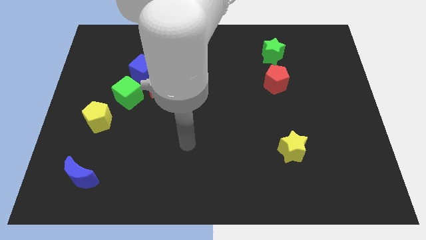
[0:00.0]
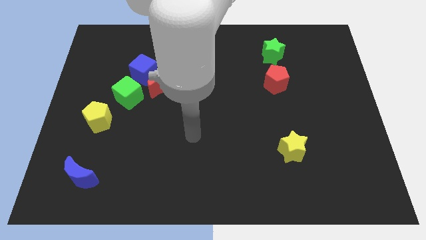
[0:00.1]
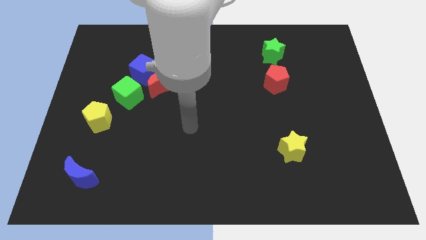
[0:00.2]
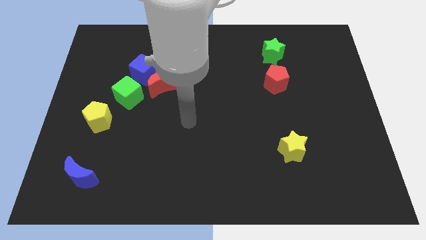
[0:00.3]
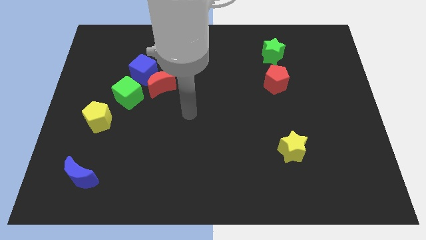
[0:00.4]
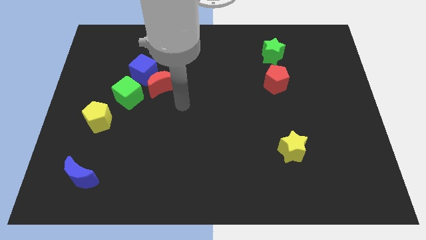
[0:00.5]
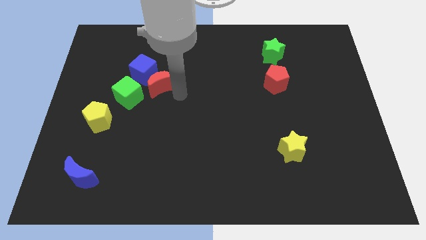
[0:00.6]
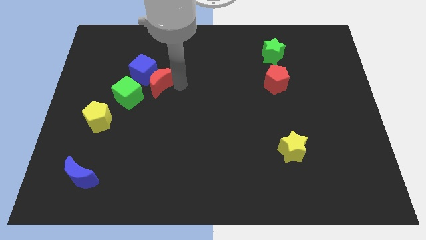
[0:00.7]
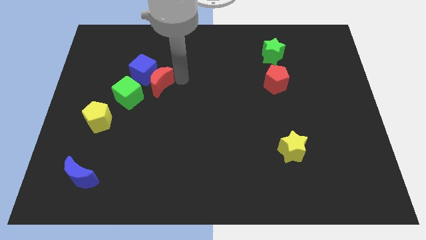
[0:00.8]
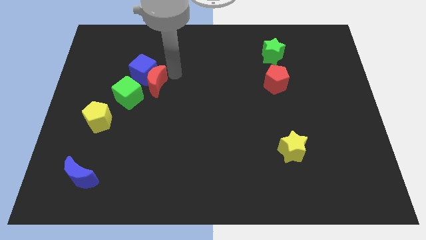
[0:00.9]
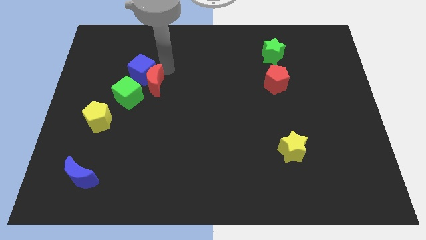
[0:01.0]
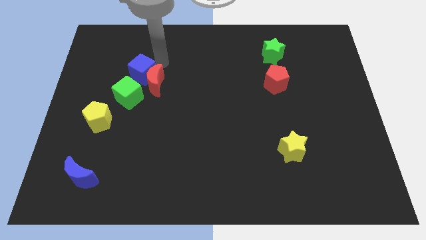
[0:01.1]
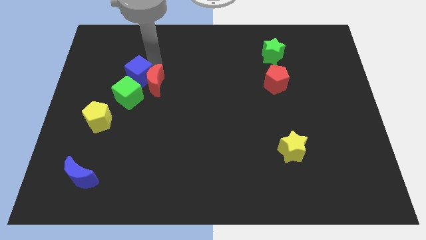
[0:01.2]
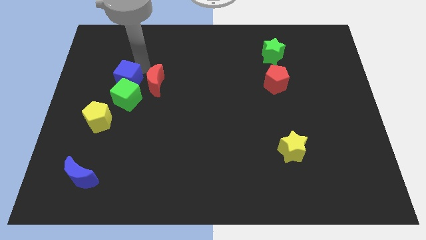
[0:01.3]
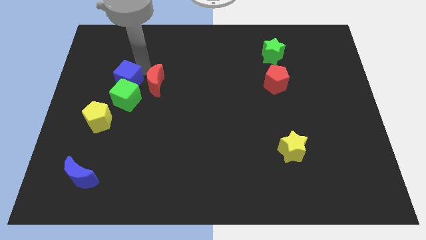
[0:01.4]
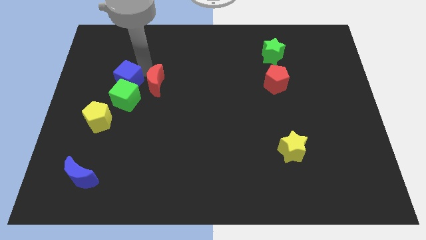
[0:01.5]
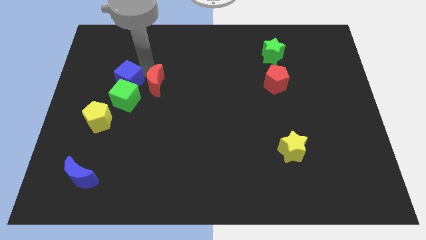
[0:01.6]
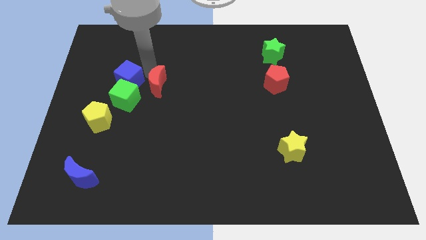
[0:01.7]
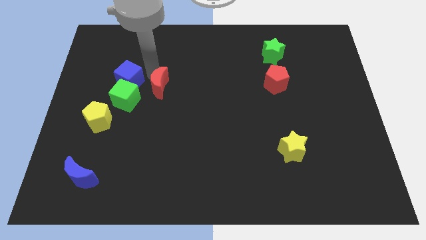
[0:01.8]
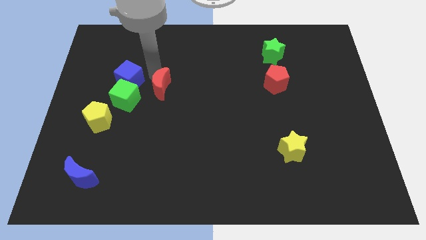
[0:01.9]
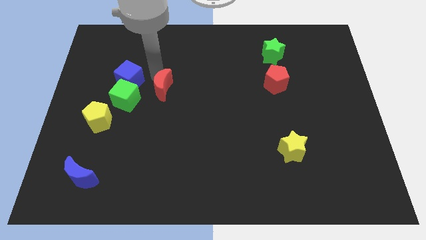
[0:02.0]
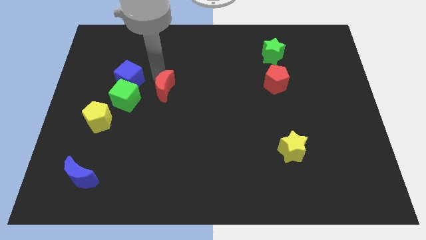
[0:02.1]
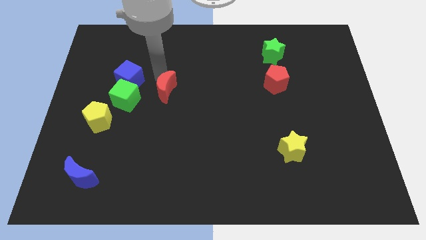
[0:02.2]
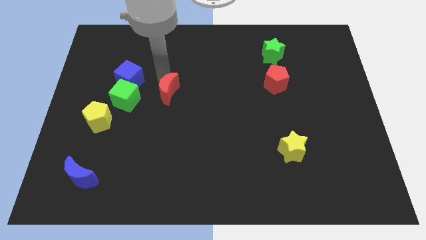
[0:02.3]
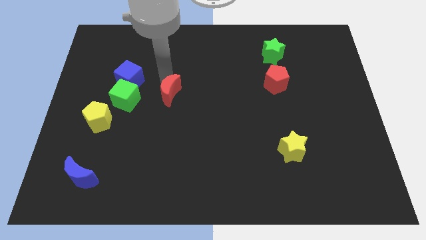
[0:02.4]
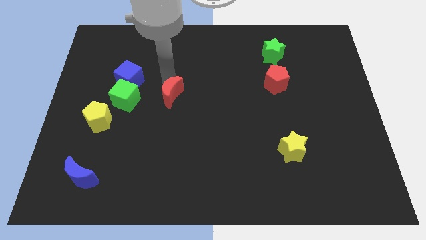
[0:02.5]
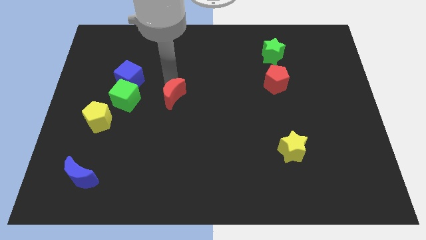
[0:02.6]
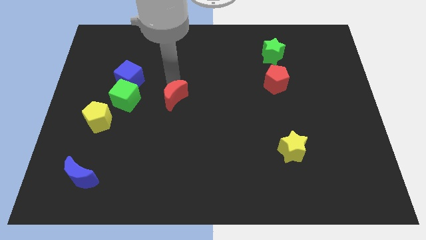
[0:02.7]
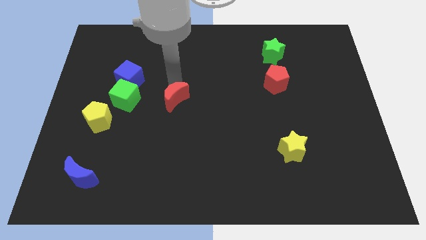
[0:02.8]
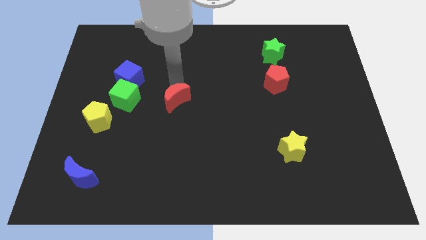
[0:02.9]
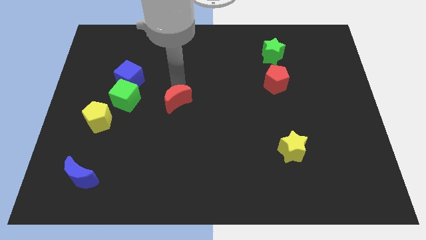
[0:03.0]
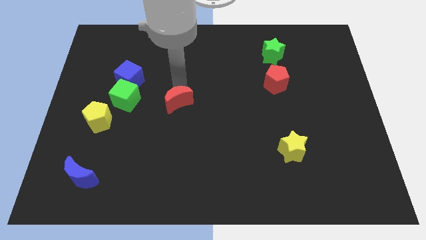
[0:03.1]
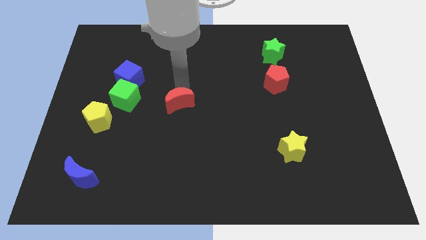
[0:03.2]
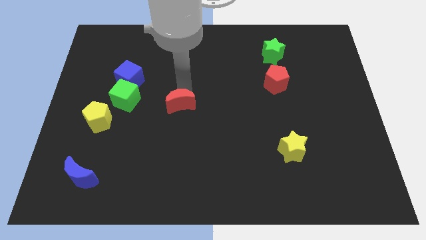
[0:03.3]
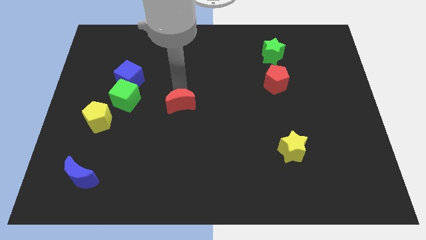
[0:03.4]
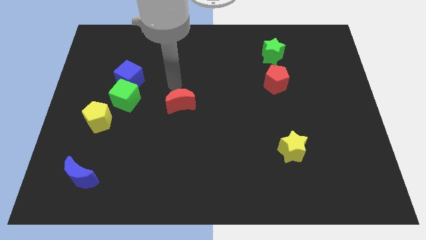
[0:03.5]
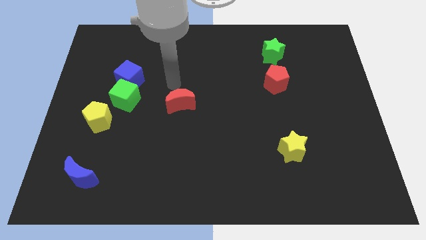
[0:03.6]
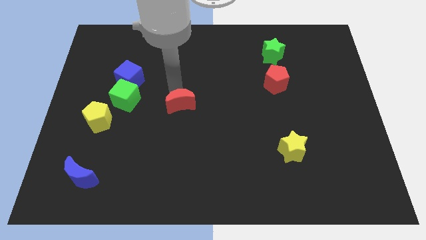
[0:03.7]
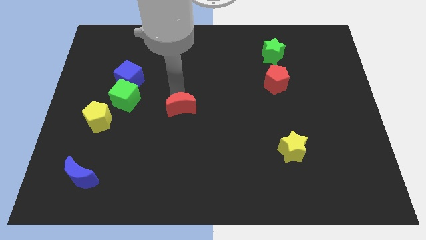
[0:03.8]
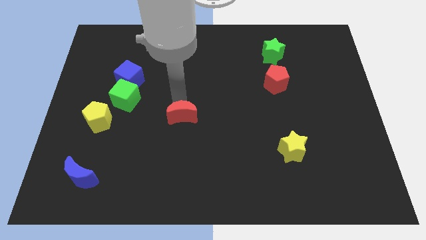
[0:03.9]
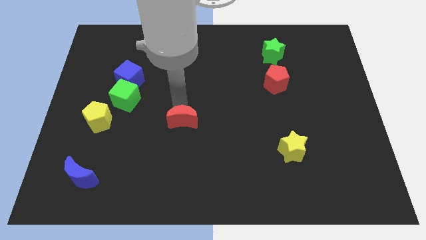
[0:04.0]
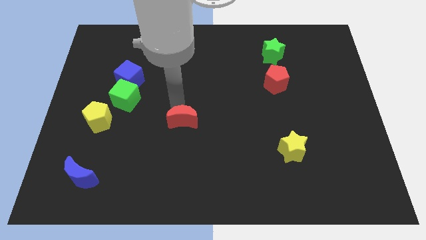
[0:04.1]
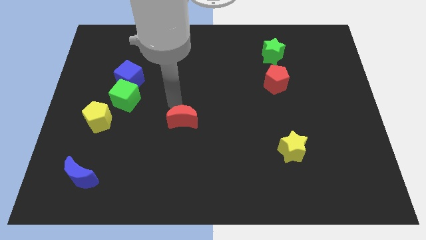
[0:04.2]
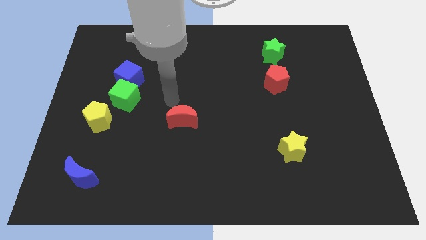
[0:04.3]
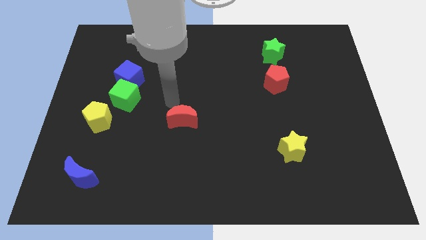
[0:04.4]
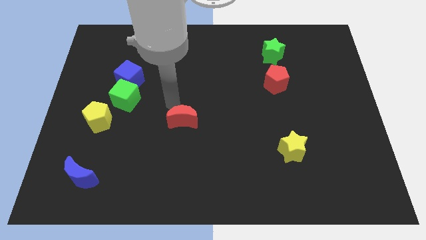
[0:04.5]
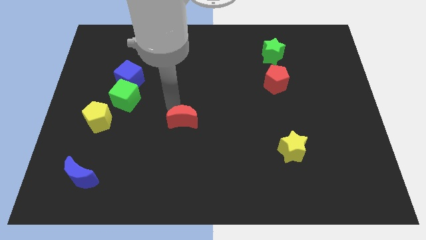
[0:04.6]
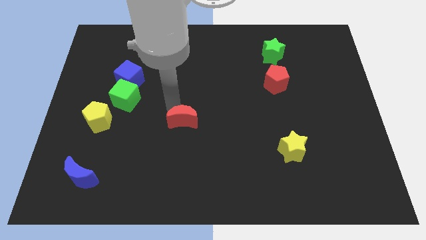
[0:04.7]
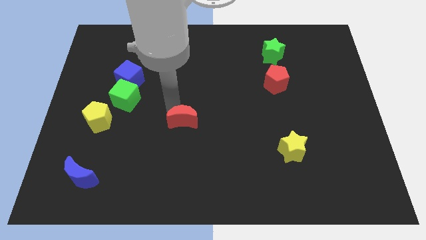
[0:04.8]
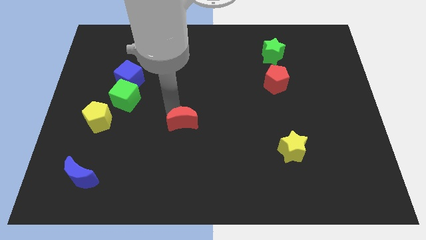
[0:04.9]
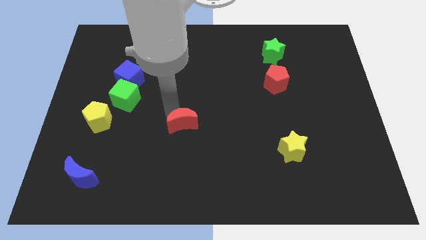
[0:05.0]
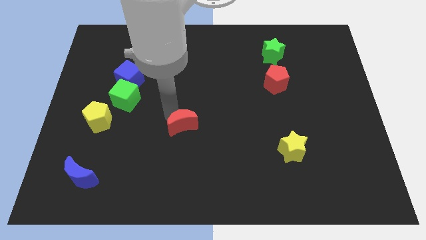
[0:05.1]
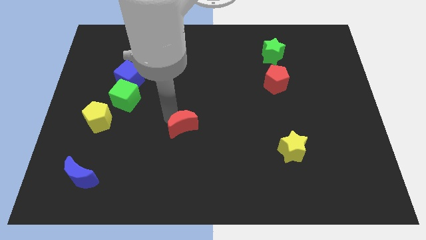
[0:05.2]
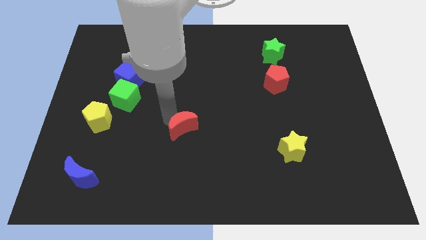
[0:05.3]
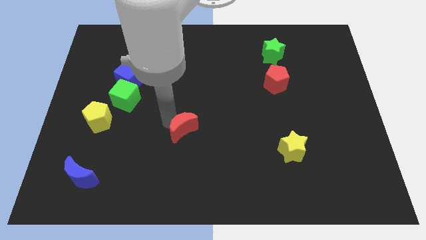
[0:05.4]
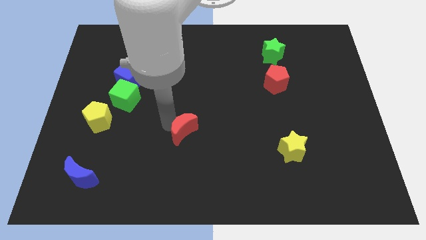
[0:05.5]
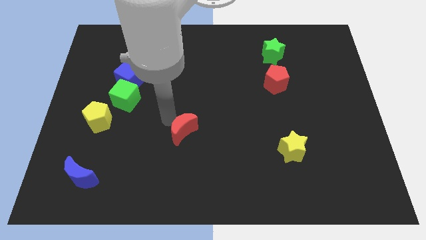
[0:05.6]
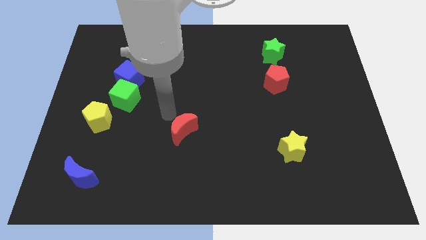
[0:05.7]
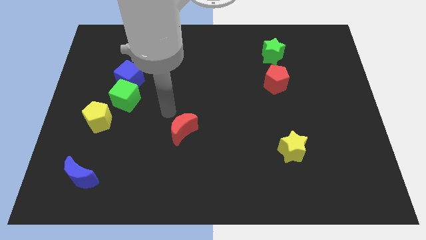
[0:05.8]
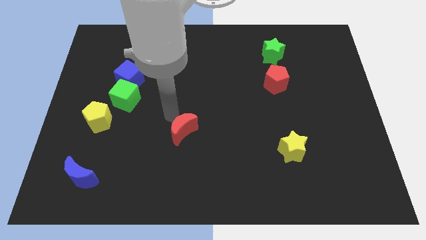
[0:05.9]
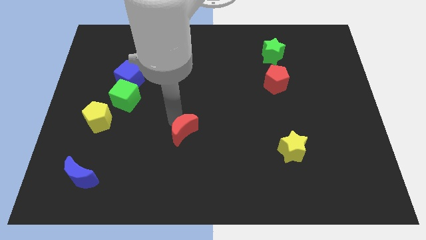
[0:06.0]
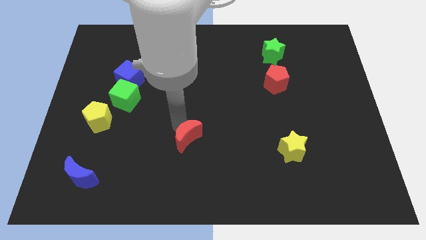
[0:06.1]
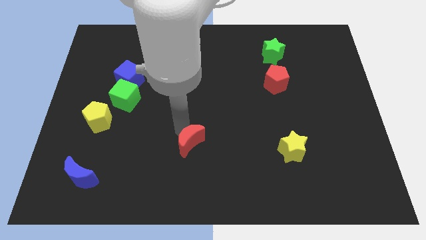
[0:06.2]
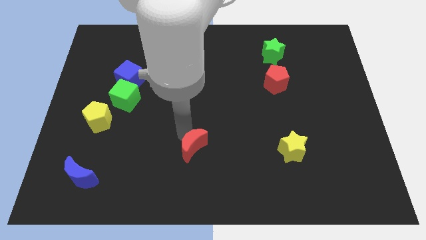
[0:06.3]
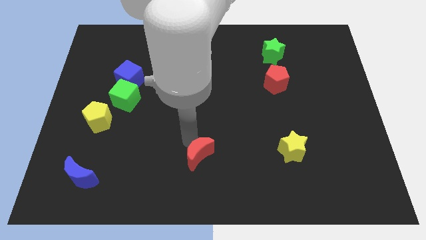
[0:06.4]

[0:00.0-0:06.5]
slide the red moon to the bottom side
